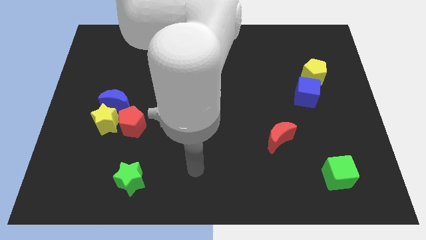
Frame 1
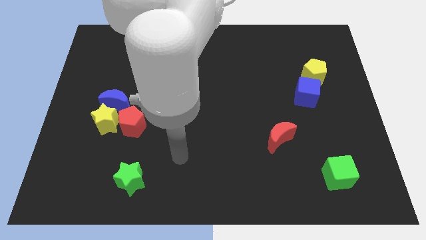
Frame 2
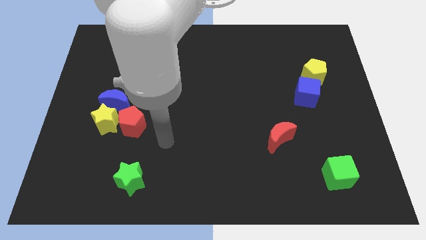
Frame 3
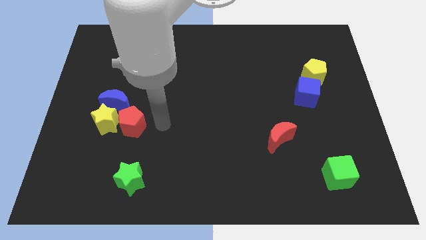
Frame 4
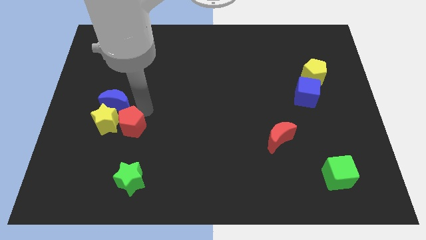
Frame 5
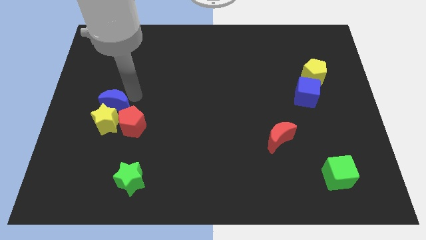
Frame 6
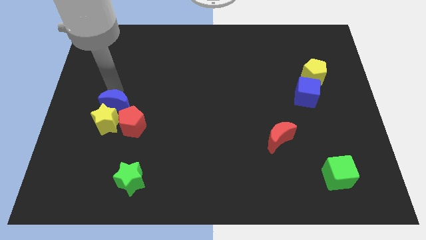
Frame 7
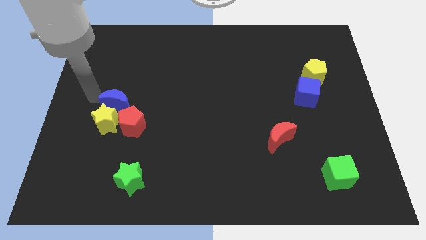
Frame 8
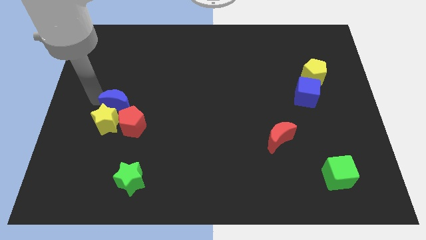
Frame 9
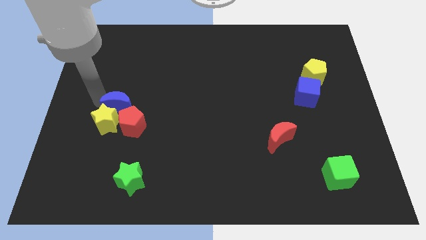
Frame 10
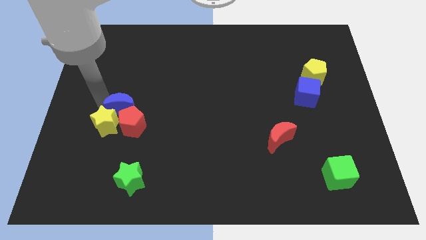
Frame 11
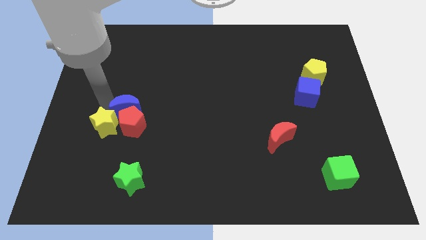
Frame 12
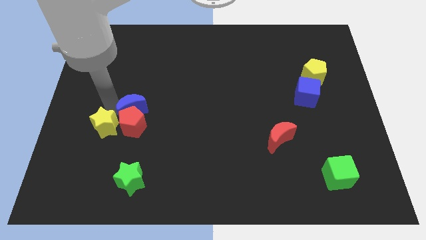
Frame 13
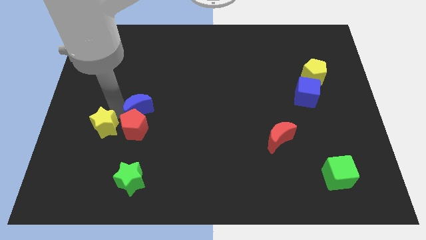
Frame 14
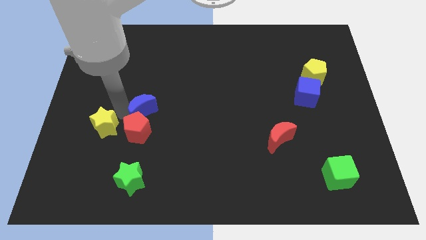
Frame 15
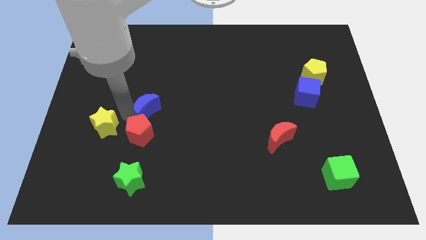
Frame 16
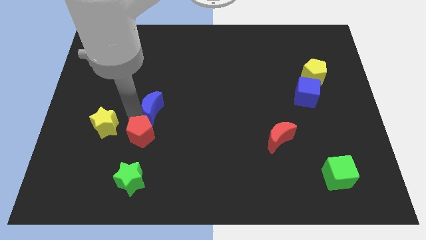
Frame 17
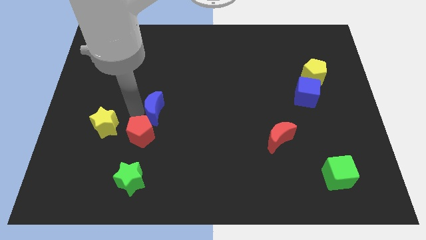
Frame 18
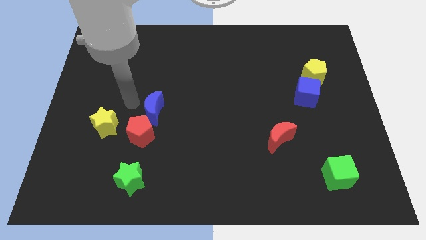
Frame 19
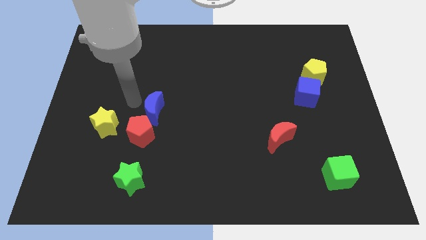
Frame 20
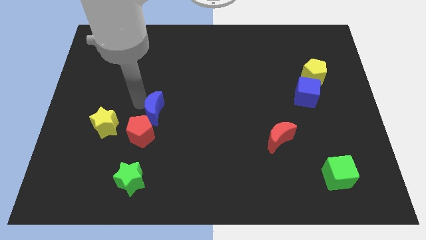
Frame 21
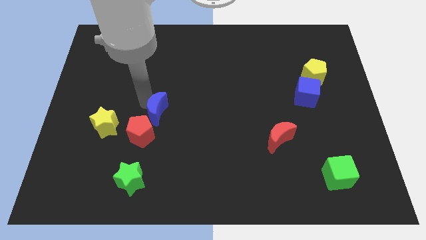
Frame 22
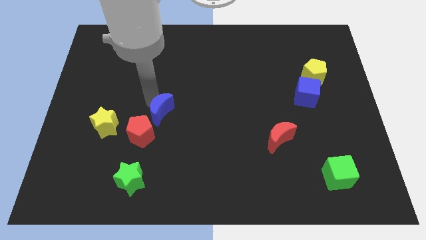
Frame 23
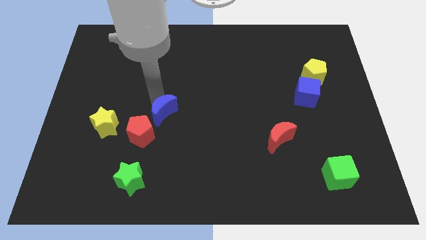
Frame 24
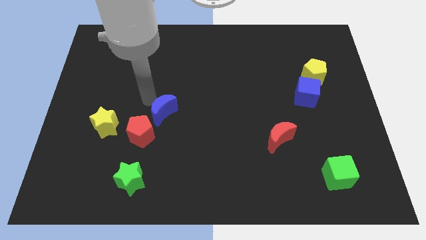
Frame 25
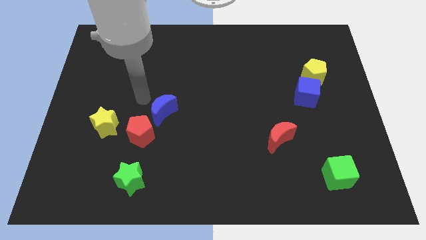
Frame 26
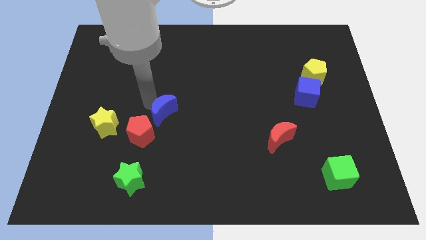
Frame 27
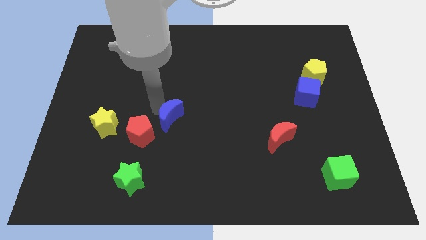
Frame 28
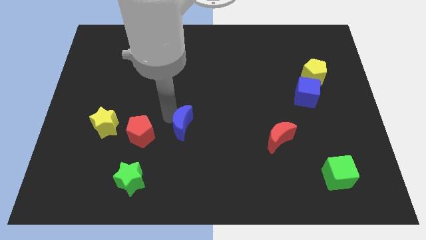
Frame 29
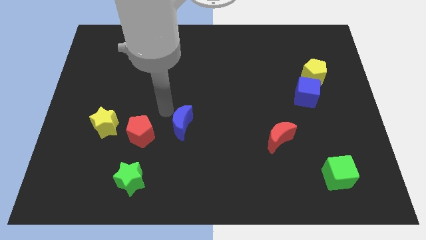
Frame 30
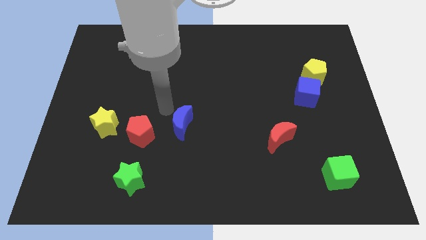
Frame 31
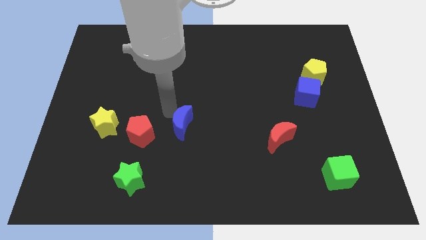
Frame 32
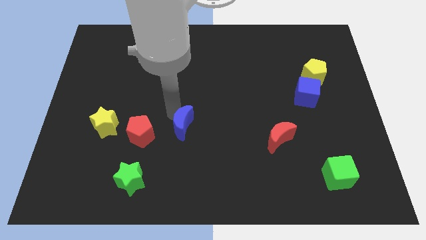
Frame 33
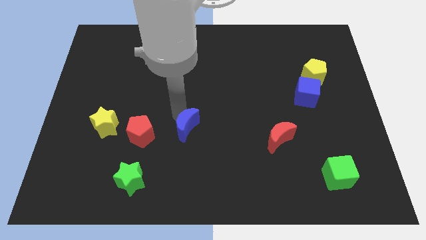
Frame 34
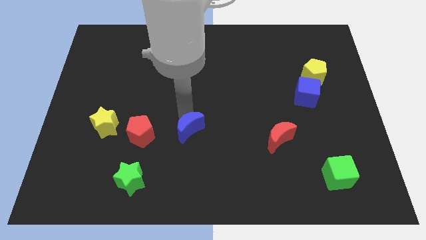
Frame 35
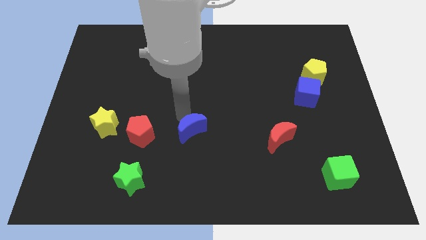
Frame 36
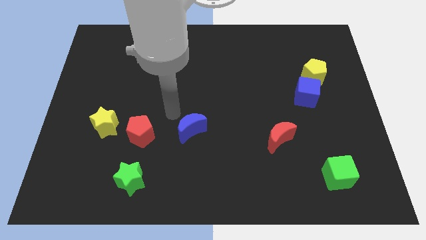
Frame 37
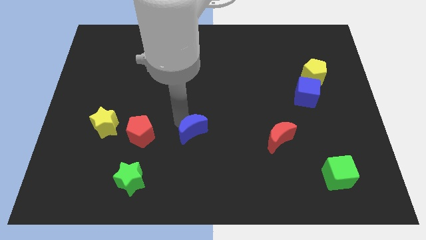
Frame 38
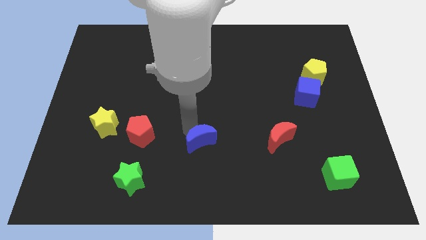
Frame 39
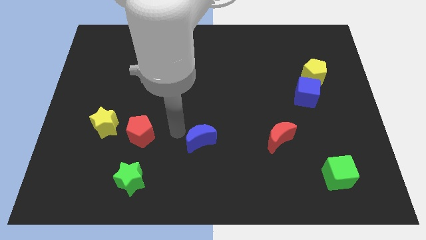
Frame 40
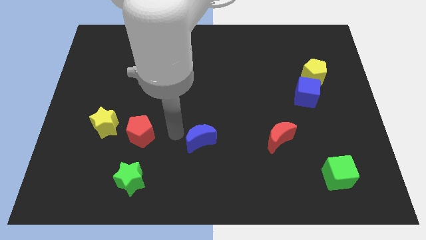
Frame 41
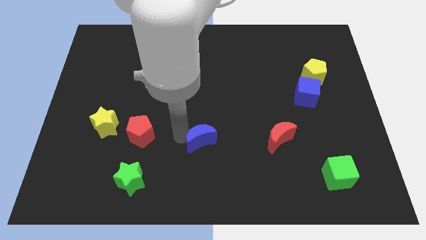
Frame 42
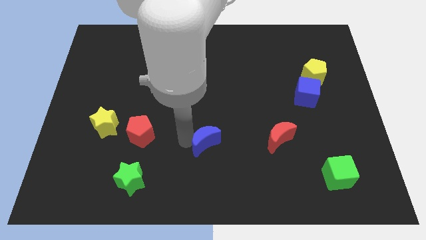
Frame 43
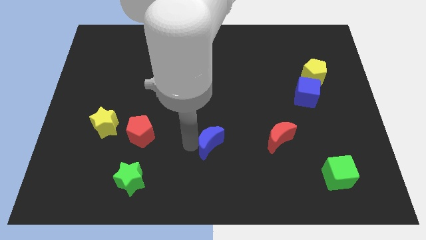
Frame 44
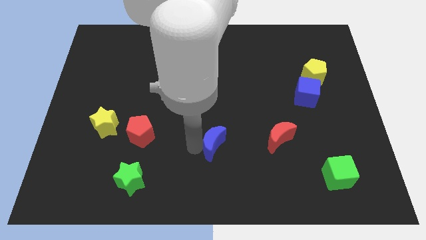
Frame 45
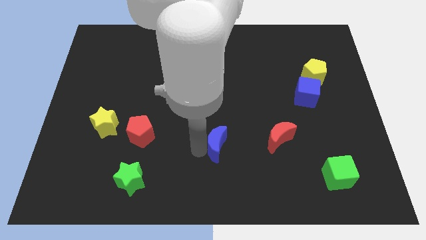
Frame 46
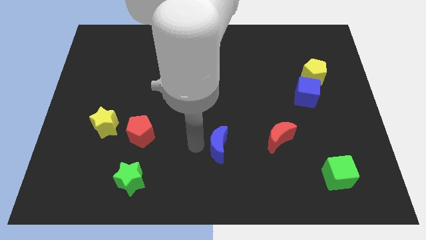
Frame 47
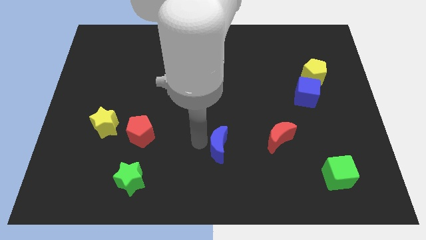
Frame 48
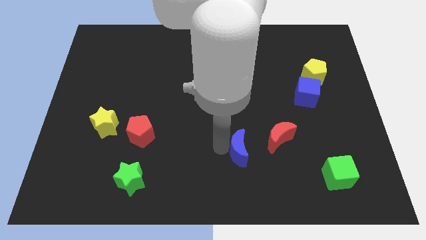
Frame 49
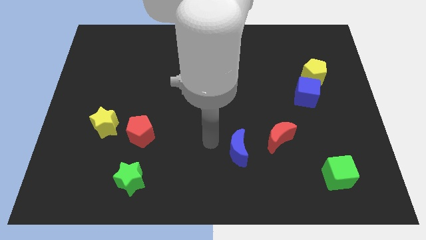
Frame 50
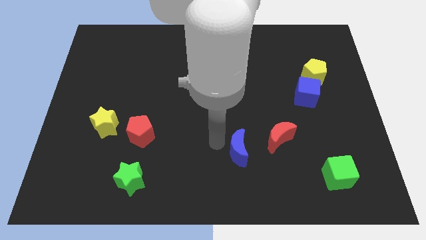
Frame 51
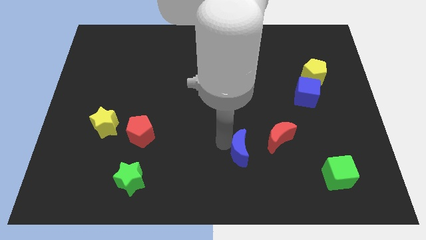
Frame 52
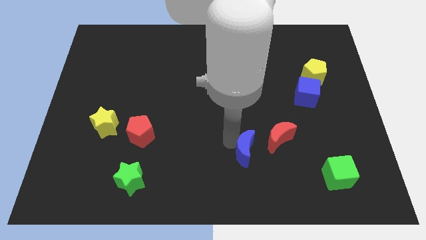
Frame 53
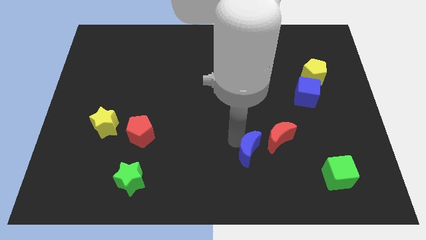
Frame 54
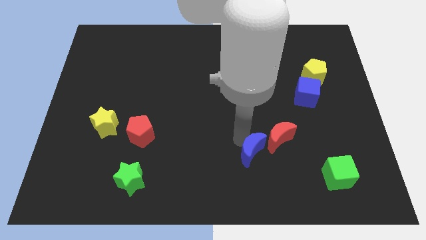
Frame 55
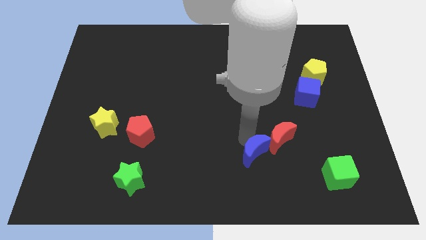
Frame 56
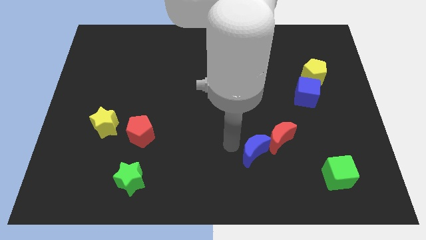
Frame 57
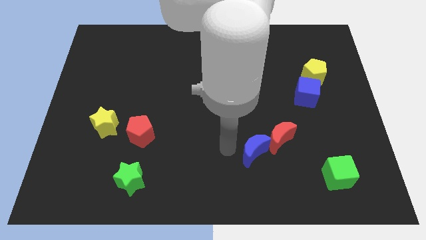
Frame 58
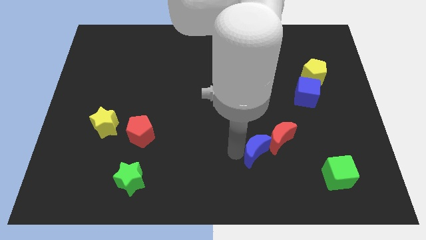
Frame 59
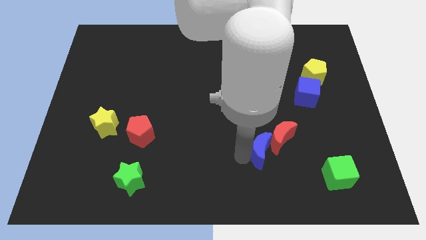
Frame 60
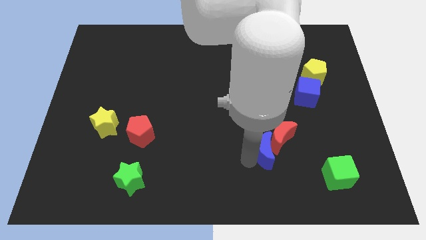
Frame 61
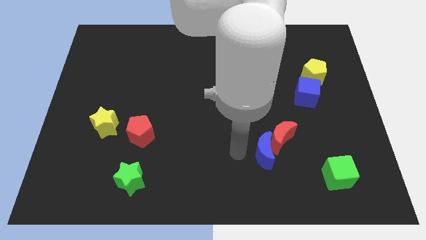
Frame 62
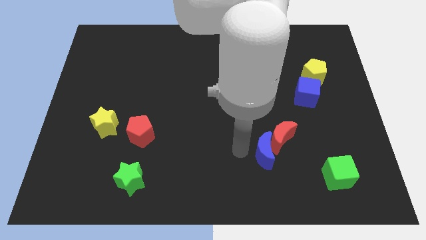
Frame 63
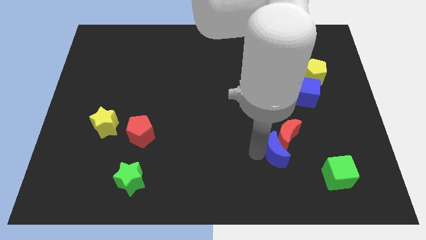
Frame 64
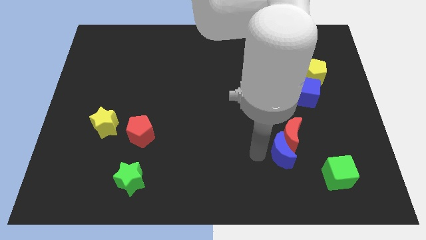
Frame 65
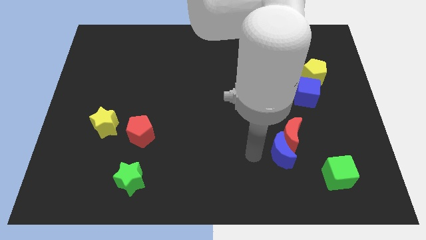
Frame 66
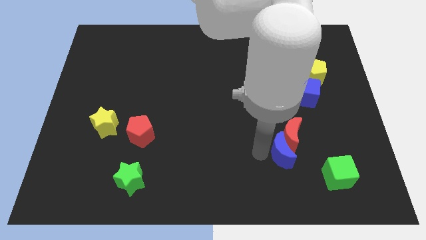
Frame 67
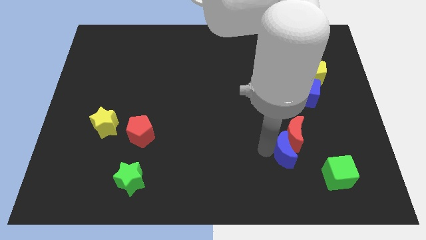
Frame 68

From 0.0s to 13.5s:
put the blue moon diagonally up and to the left of the green cube
